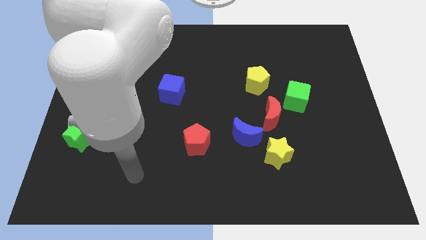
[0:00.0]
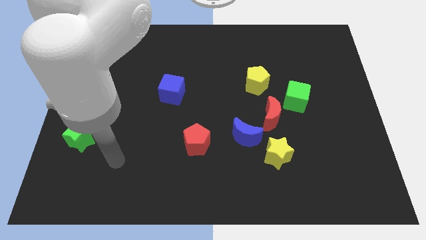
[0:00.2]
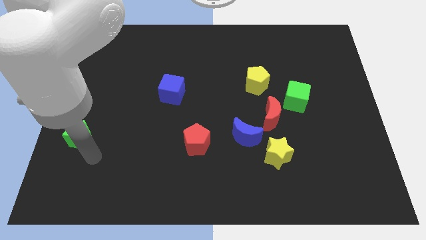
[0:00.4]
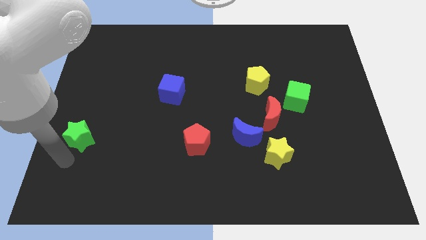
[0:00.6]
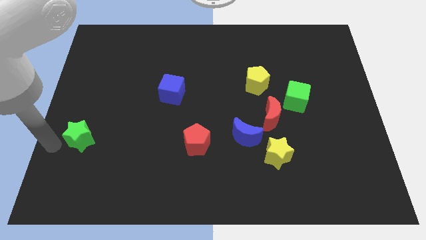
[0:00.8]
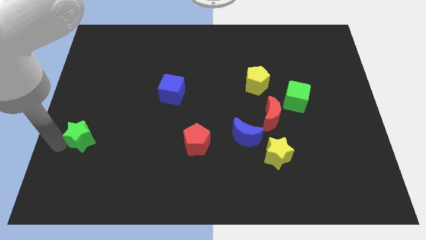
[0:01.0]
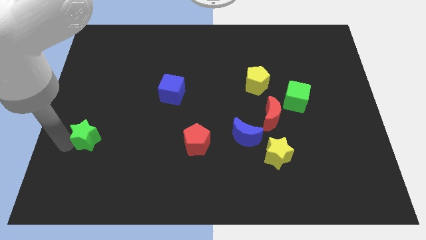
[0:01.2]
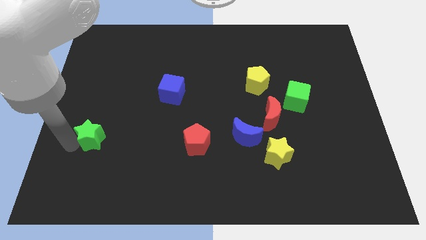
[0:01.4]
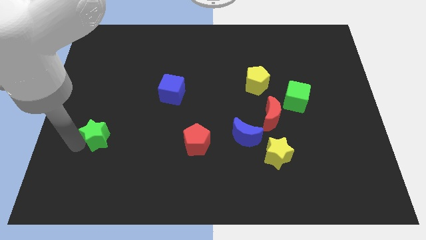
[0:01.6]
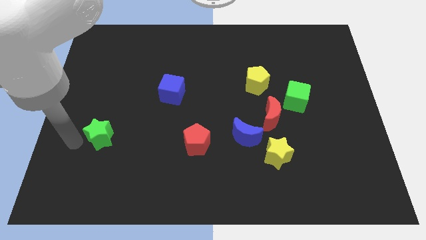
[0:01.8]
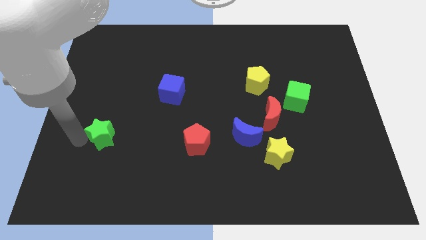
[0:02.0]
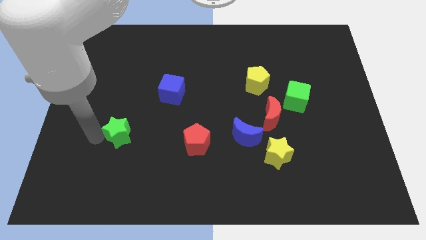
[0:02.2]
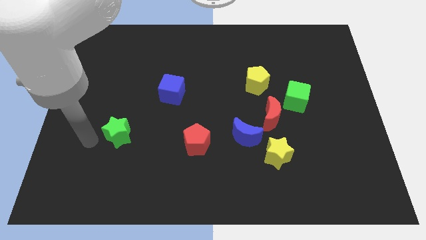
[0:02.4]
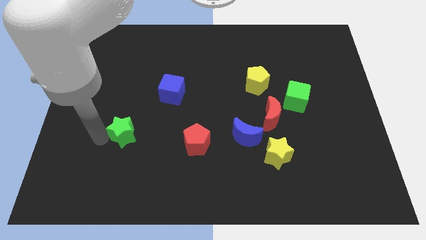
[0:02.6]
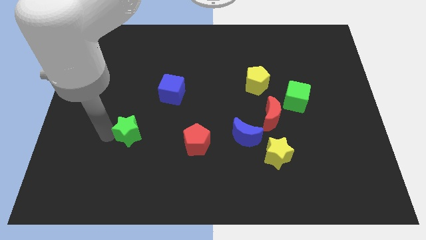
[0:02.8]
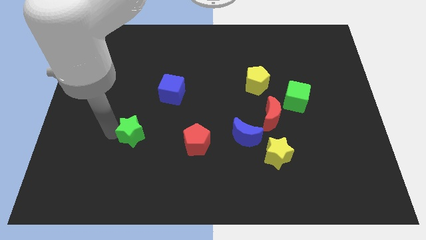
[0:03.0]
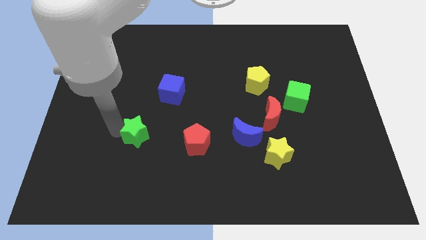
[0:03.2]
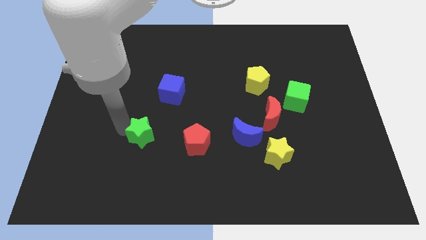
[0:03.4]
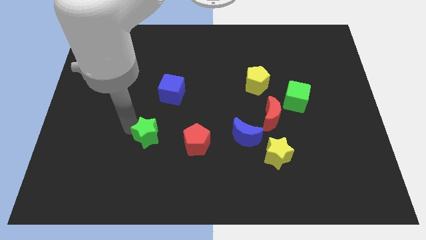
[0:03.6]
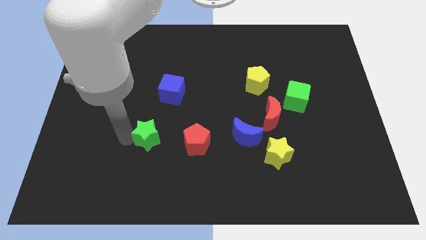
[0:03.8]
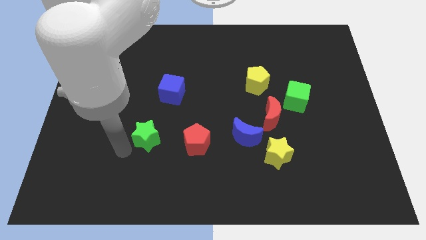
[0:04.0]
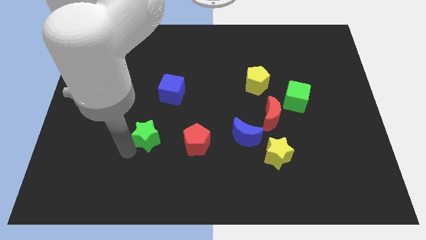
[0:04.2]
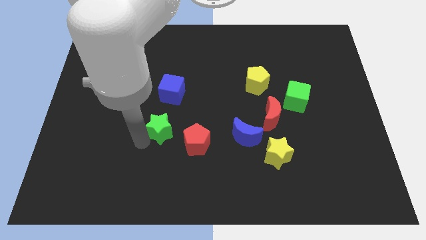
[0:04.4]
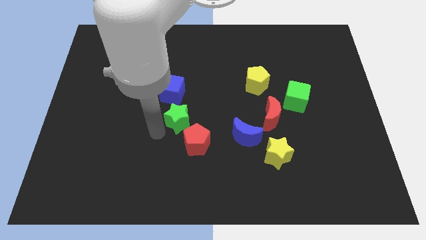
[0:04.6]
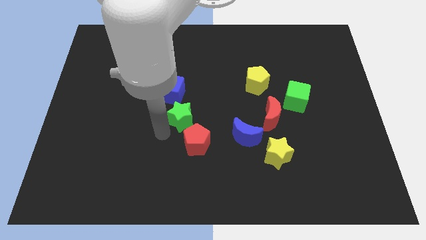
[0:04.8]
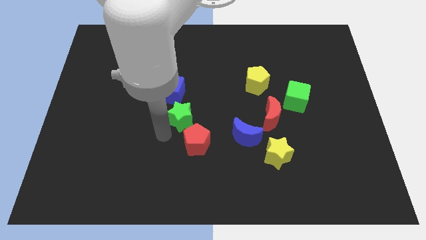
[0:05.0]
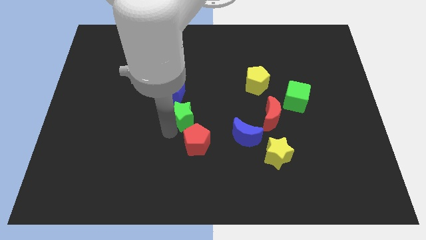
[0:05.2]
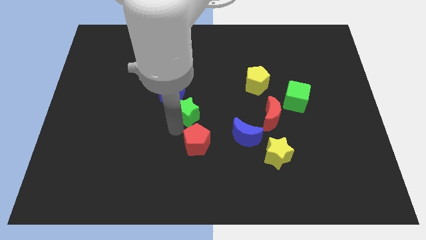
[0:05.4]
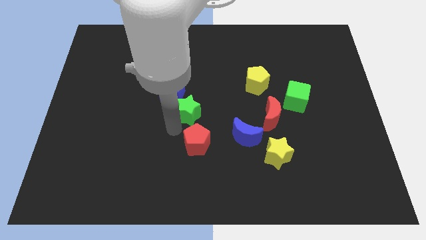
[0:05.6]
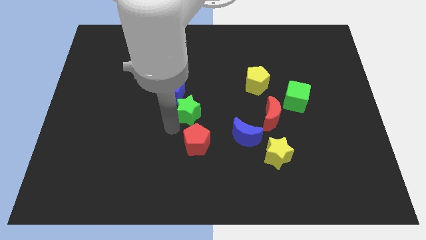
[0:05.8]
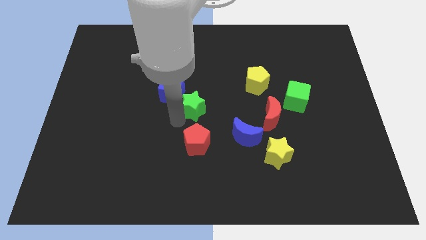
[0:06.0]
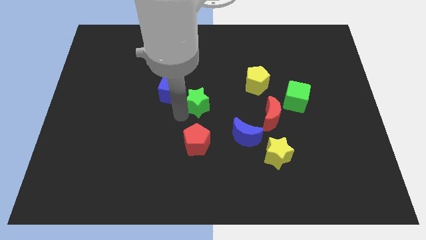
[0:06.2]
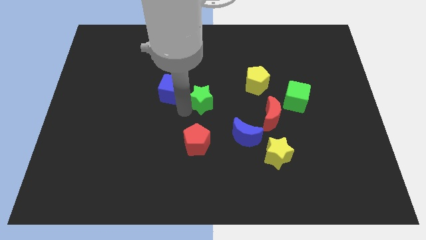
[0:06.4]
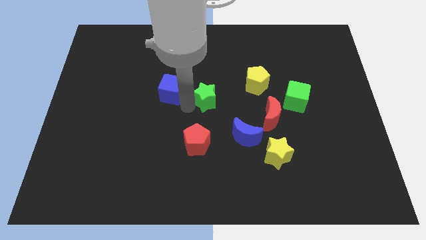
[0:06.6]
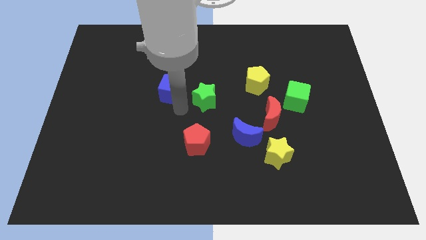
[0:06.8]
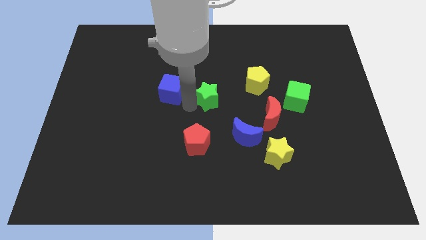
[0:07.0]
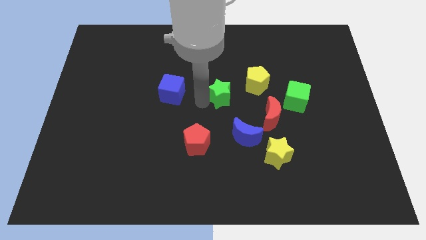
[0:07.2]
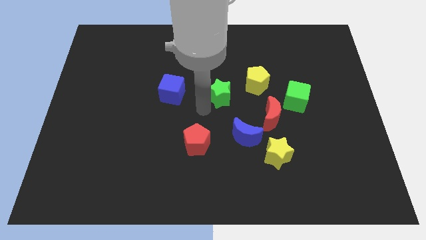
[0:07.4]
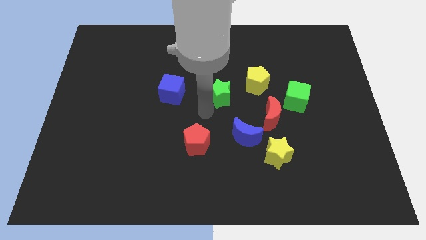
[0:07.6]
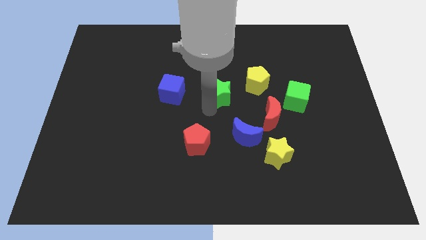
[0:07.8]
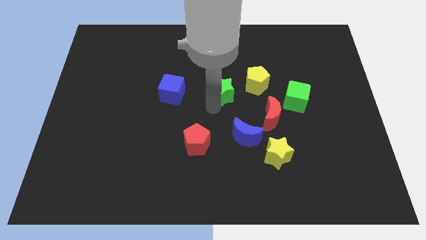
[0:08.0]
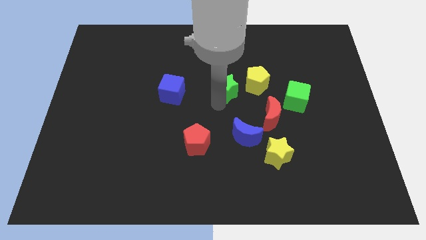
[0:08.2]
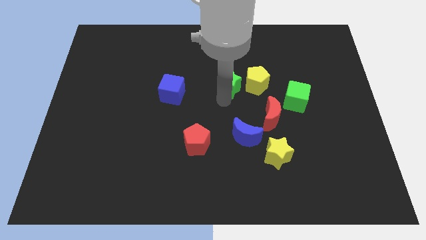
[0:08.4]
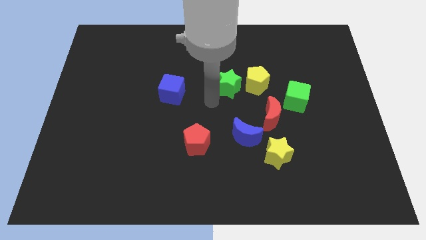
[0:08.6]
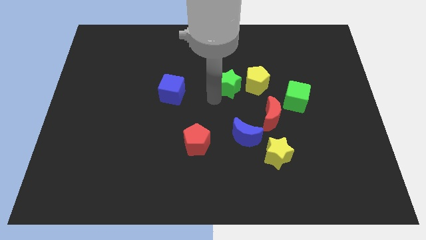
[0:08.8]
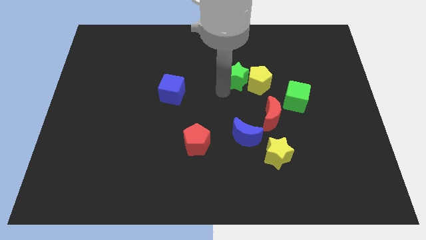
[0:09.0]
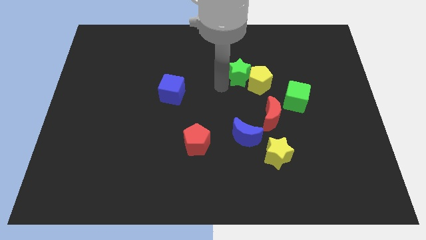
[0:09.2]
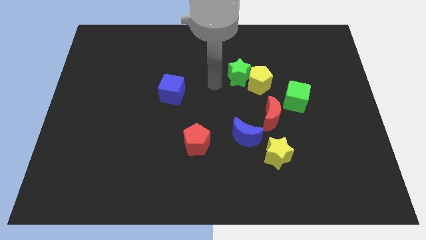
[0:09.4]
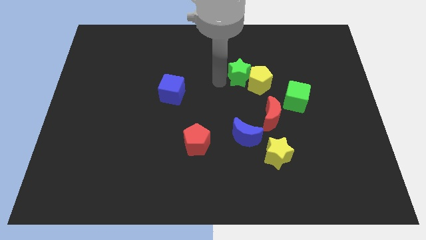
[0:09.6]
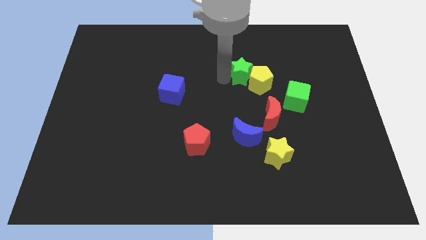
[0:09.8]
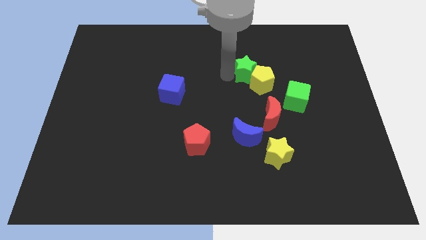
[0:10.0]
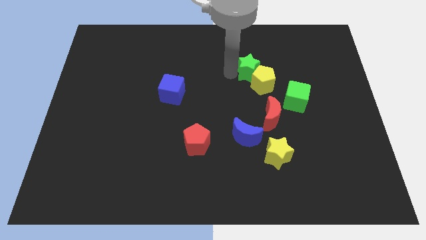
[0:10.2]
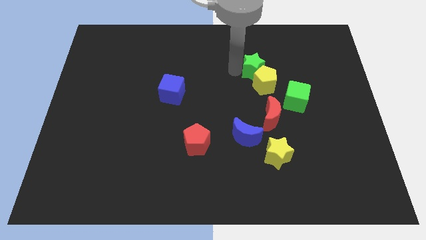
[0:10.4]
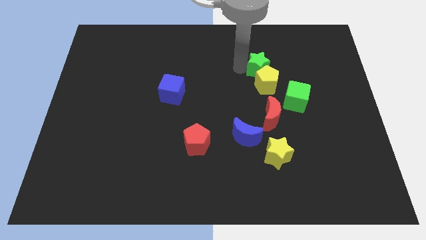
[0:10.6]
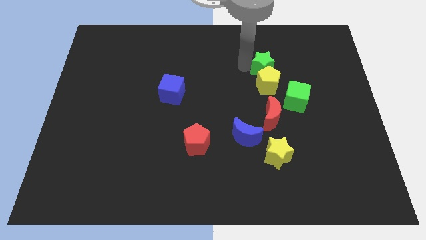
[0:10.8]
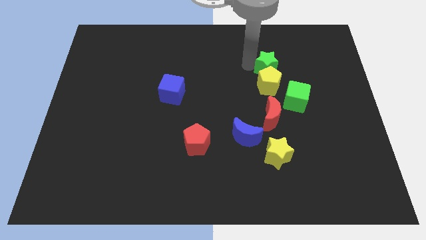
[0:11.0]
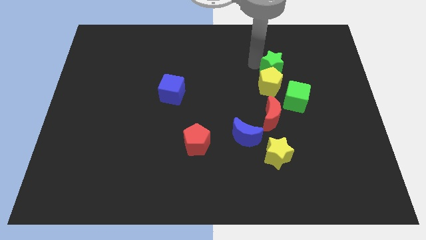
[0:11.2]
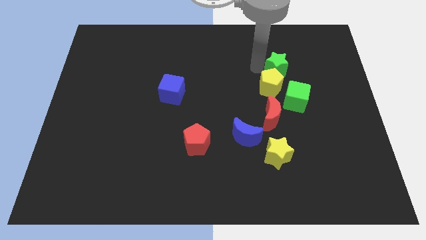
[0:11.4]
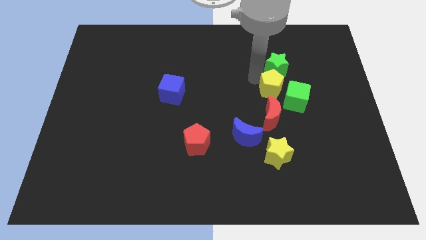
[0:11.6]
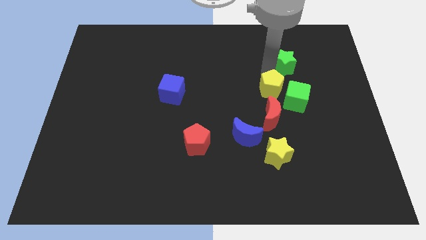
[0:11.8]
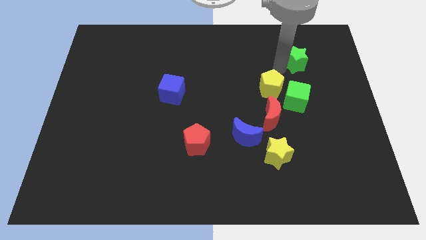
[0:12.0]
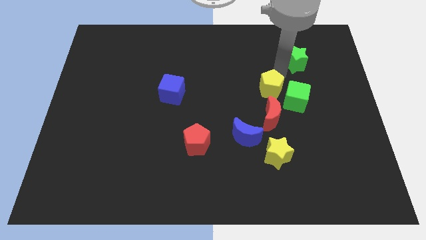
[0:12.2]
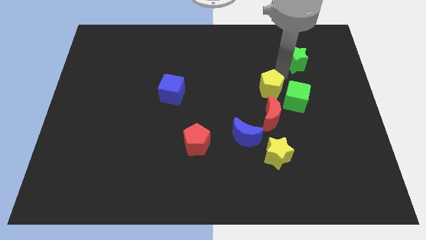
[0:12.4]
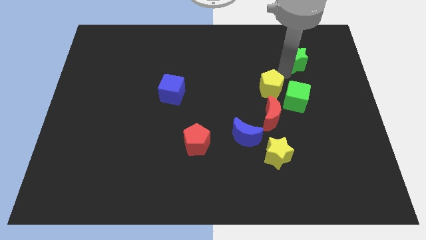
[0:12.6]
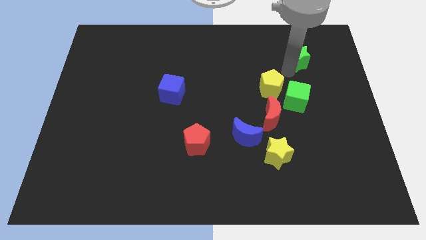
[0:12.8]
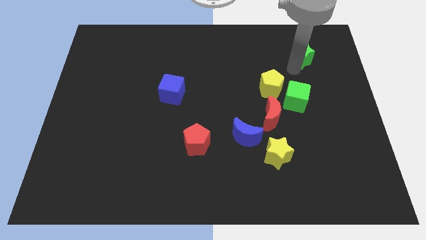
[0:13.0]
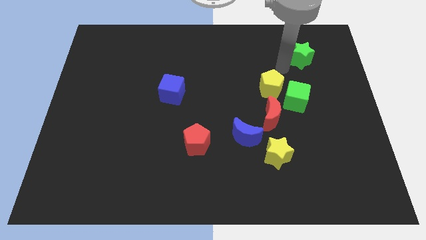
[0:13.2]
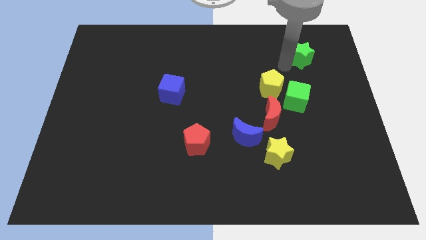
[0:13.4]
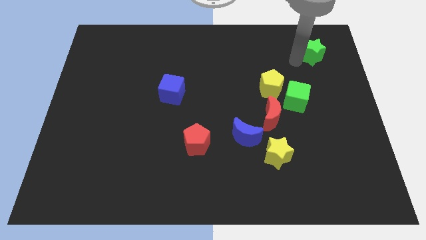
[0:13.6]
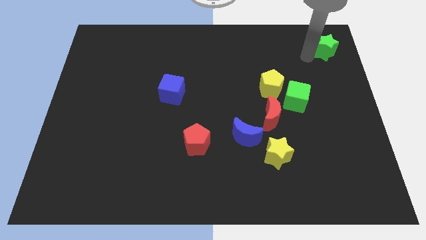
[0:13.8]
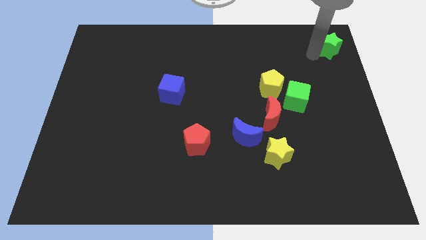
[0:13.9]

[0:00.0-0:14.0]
push the green star to the top right

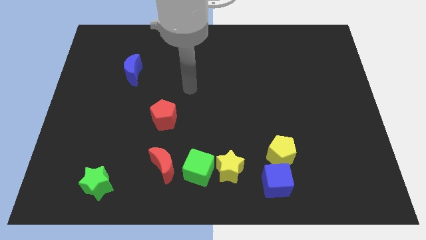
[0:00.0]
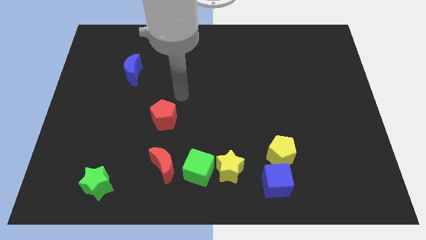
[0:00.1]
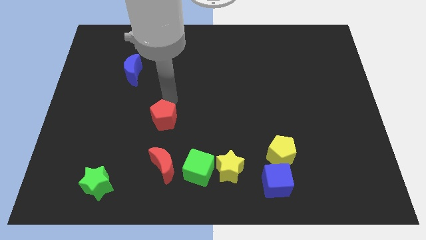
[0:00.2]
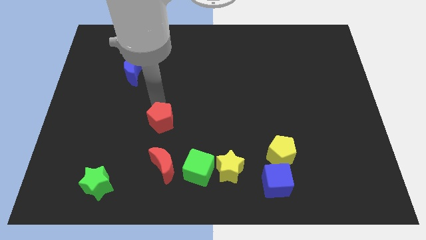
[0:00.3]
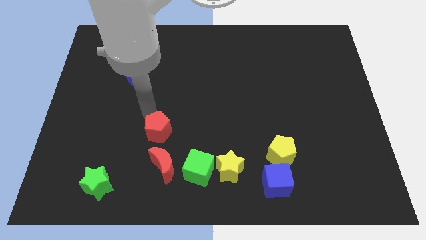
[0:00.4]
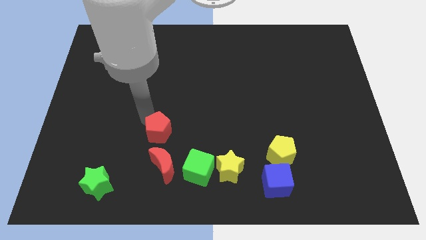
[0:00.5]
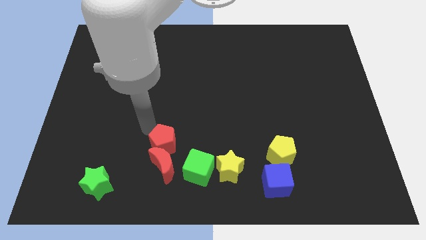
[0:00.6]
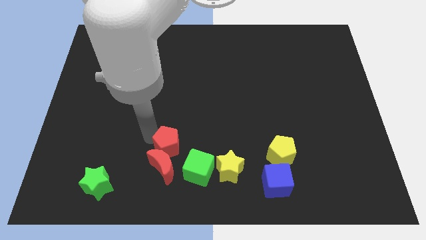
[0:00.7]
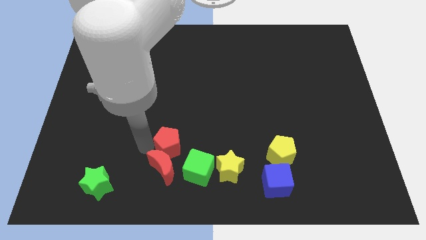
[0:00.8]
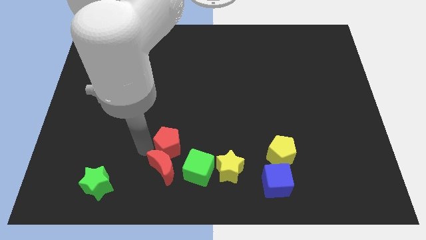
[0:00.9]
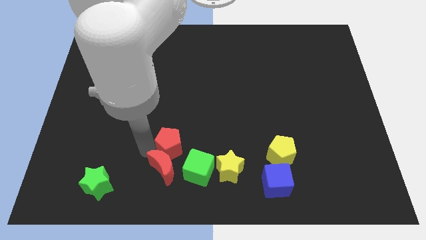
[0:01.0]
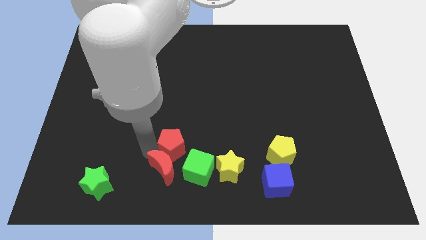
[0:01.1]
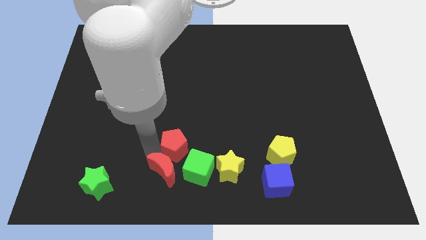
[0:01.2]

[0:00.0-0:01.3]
push the red moon to the bottom
